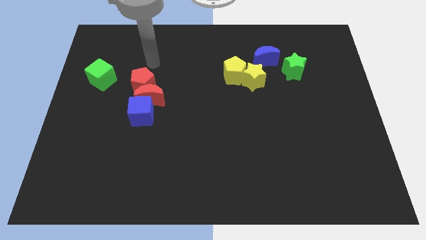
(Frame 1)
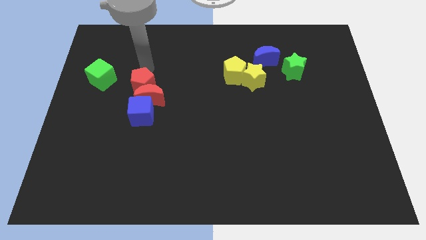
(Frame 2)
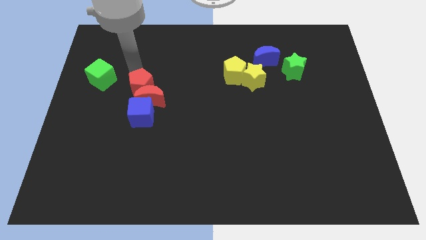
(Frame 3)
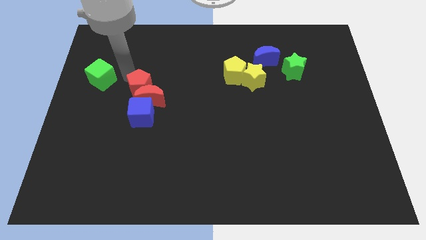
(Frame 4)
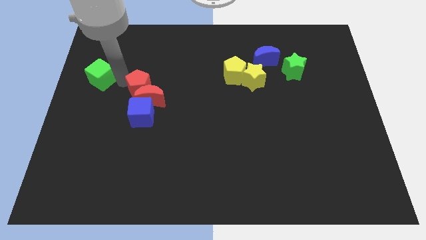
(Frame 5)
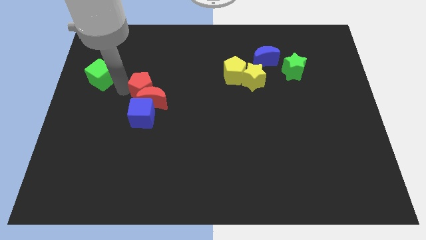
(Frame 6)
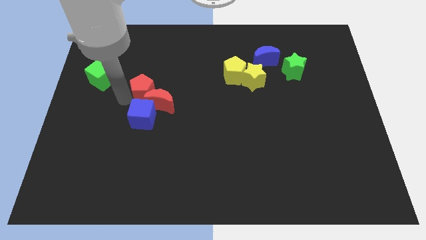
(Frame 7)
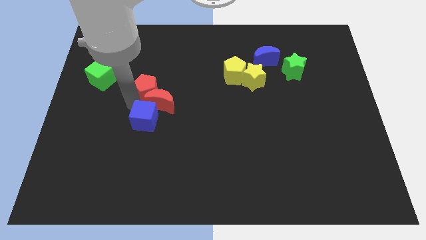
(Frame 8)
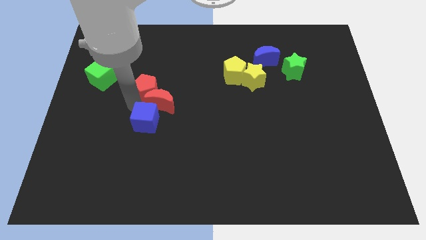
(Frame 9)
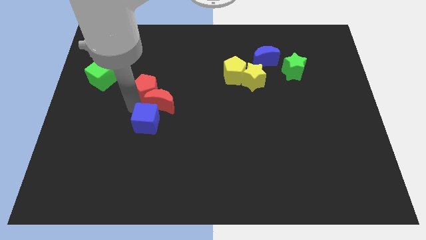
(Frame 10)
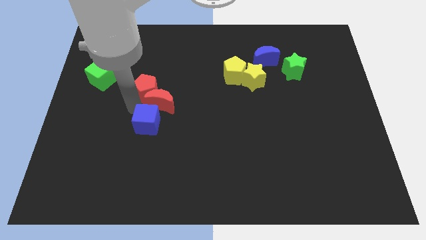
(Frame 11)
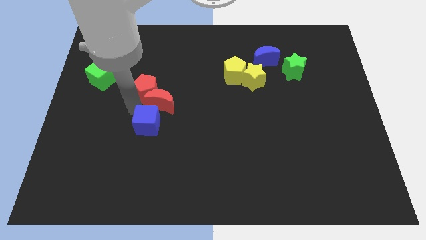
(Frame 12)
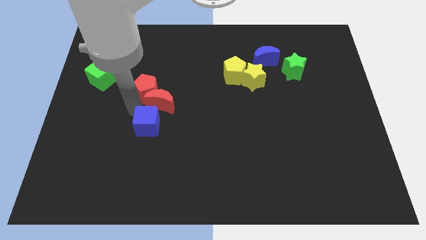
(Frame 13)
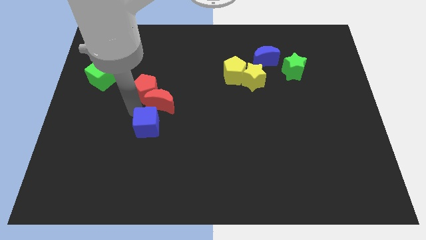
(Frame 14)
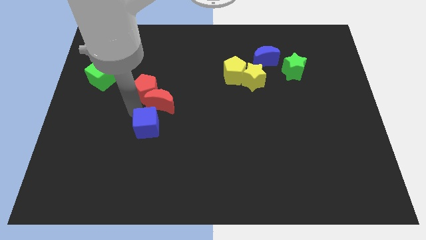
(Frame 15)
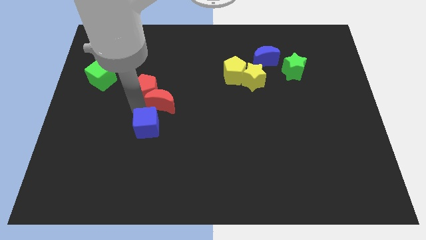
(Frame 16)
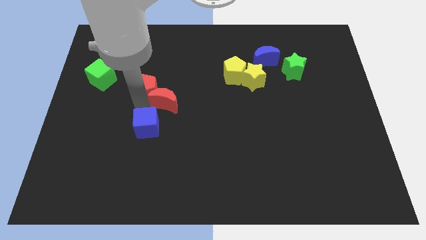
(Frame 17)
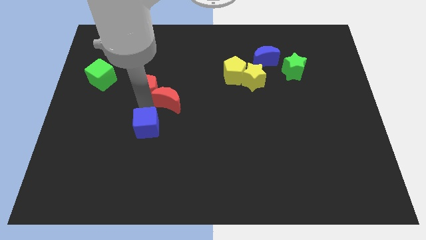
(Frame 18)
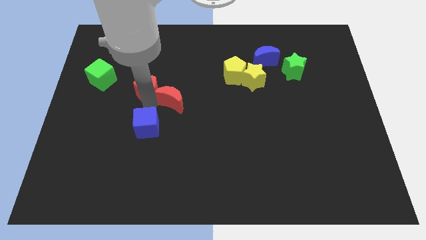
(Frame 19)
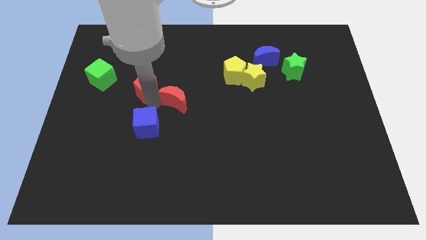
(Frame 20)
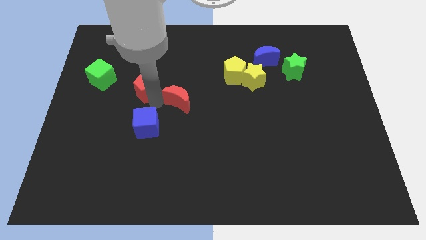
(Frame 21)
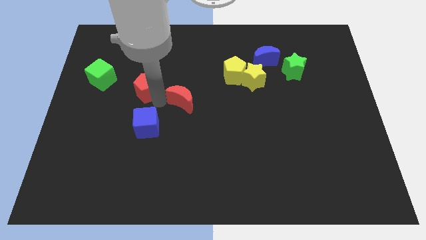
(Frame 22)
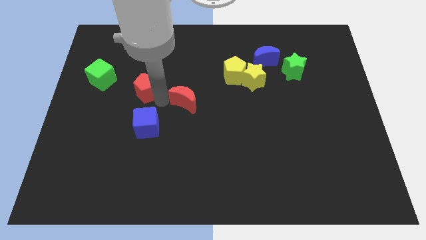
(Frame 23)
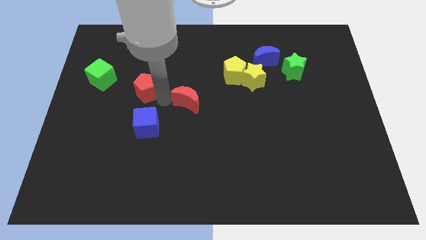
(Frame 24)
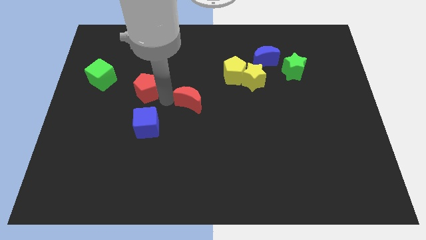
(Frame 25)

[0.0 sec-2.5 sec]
separate the red moon from the red pentagon and blue cube

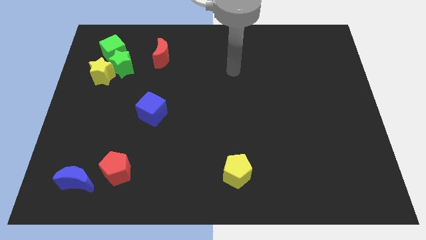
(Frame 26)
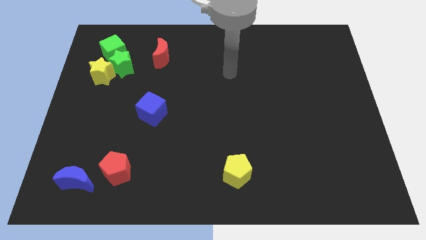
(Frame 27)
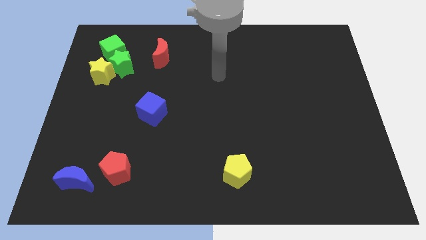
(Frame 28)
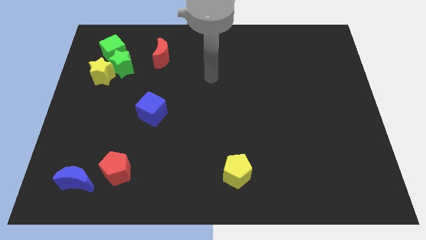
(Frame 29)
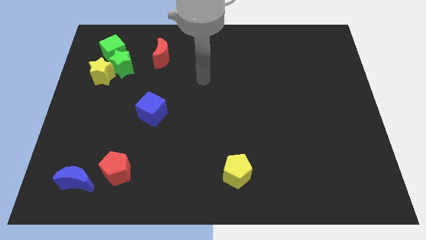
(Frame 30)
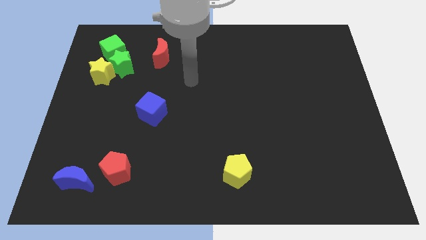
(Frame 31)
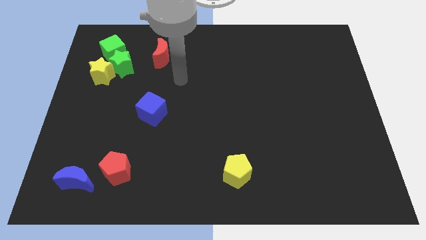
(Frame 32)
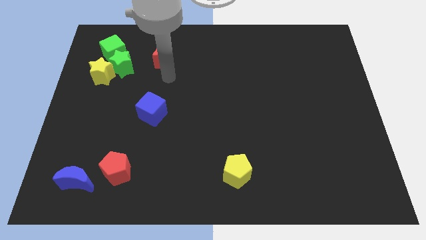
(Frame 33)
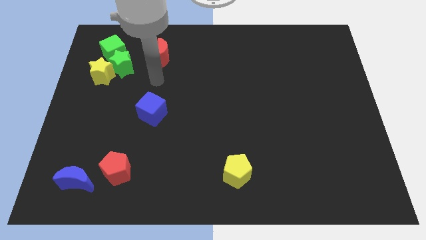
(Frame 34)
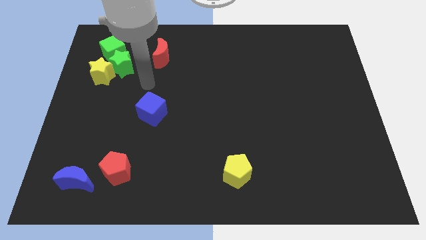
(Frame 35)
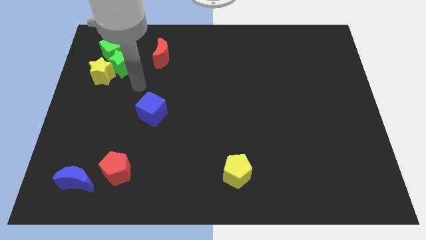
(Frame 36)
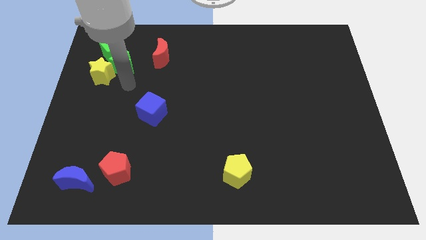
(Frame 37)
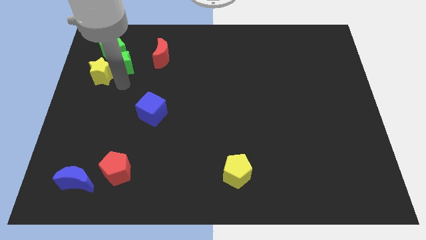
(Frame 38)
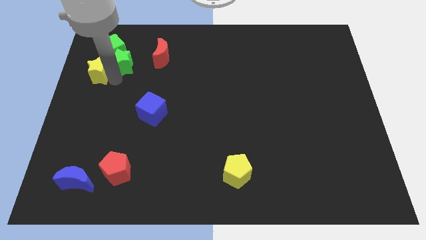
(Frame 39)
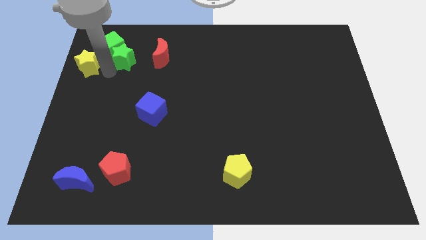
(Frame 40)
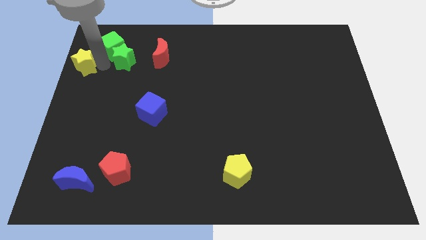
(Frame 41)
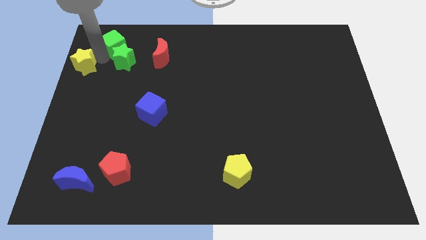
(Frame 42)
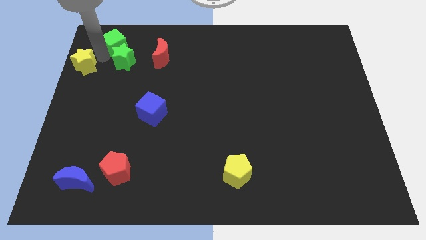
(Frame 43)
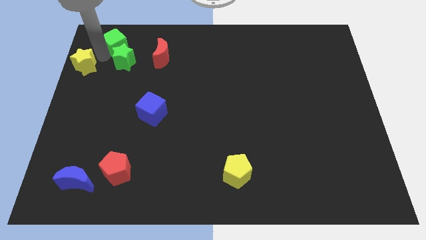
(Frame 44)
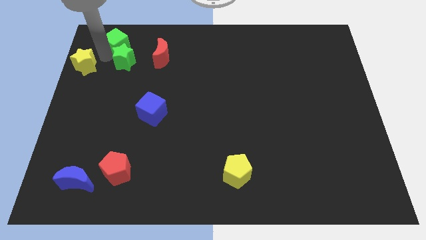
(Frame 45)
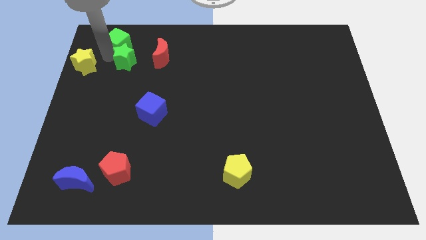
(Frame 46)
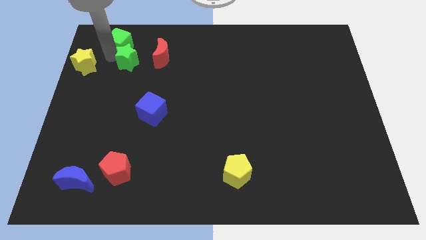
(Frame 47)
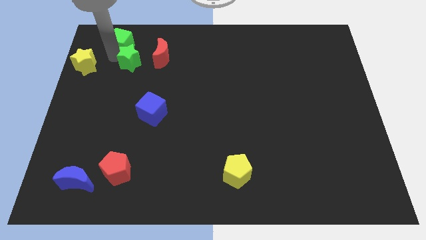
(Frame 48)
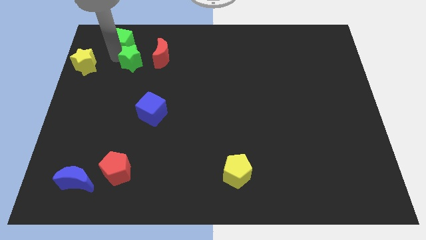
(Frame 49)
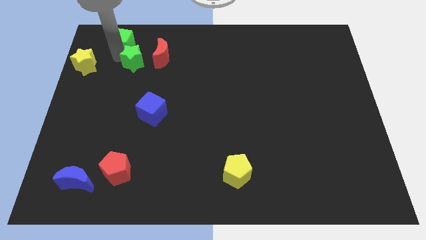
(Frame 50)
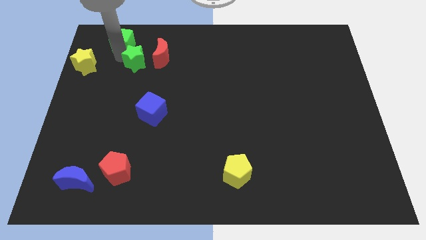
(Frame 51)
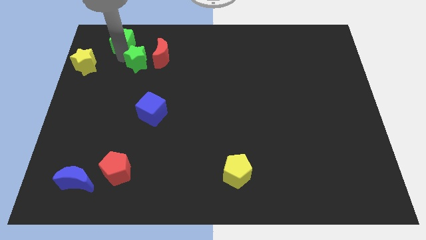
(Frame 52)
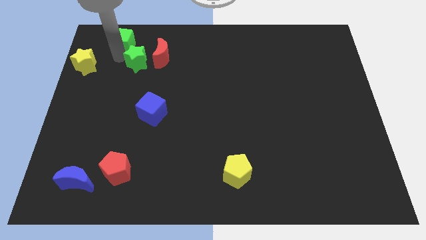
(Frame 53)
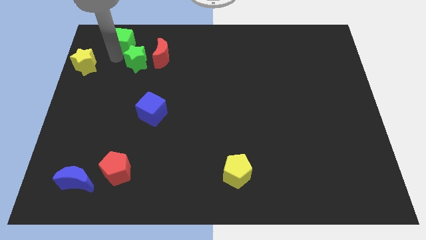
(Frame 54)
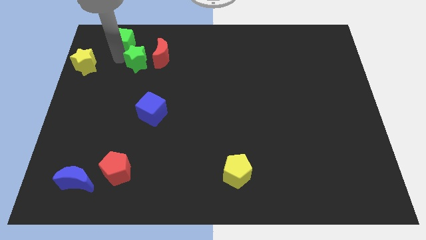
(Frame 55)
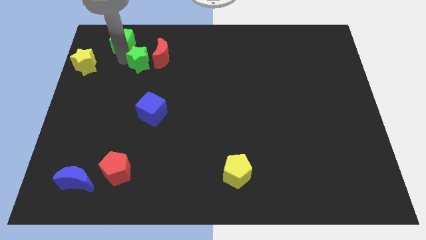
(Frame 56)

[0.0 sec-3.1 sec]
separate the green star from the yellow star and green cube

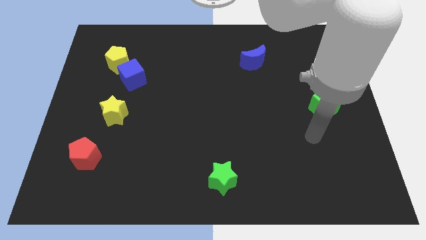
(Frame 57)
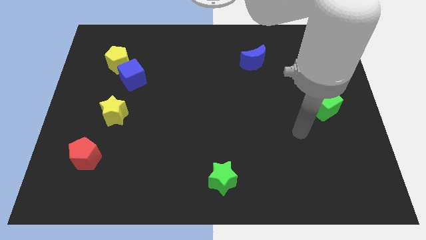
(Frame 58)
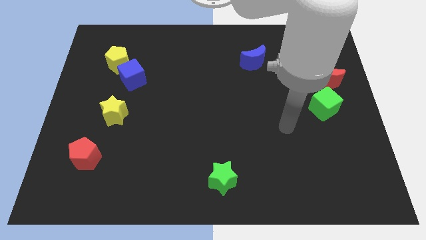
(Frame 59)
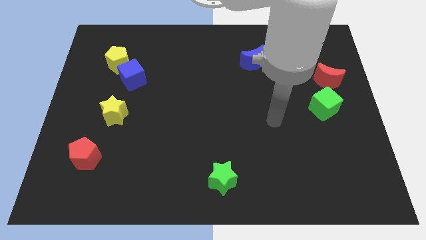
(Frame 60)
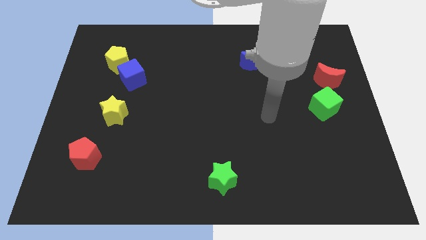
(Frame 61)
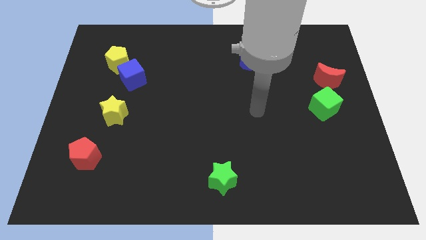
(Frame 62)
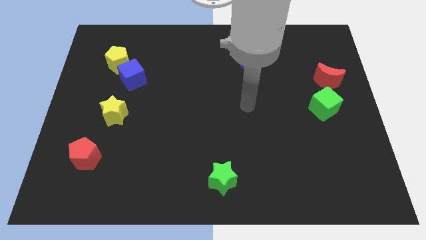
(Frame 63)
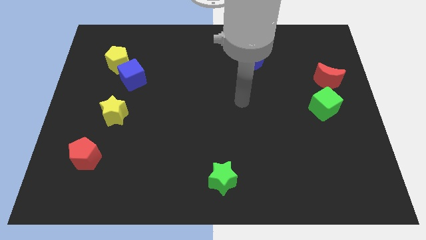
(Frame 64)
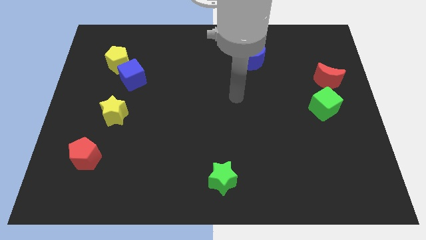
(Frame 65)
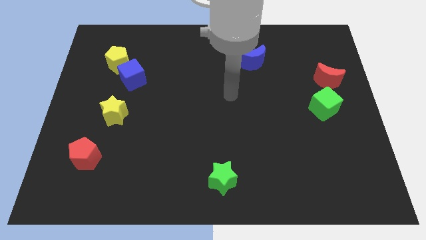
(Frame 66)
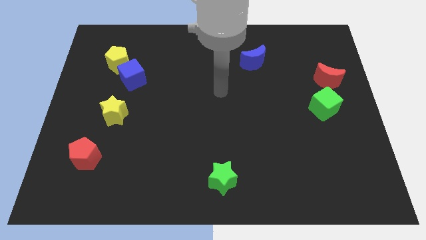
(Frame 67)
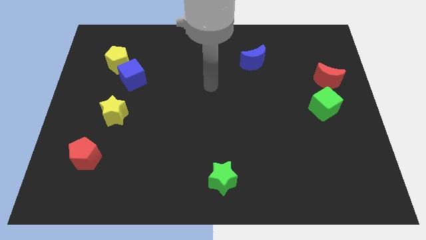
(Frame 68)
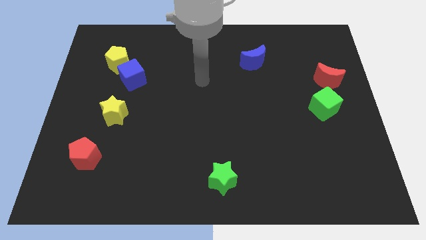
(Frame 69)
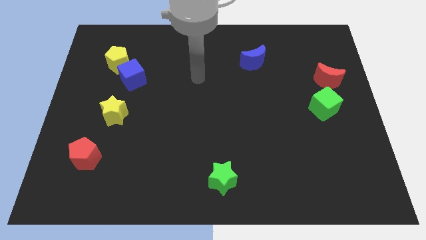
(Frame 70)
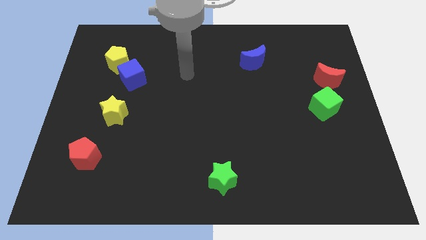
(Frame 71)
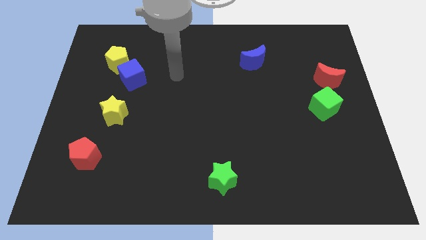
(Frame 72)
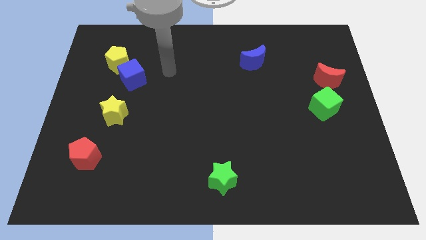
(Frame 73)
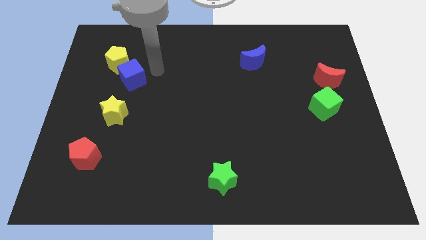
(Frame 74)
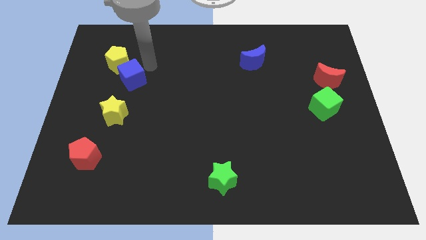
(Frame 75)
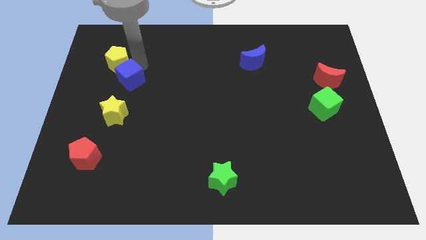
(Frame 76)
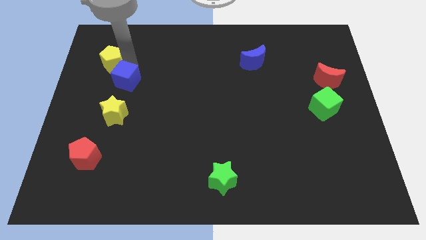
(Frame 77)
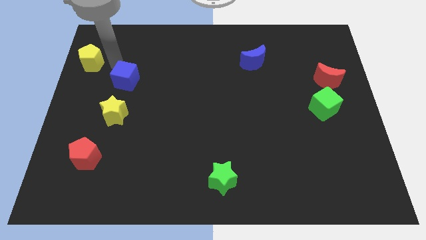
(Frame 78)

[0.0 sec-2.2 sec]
separate the blue cube from the yellow pentagon

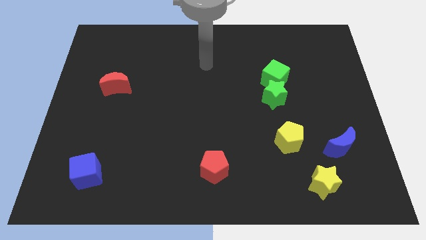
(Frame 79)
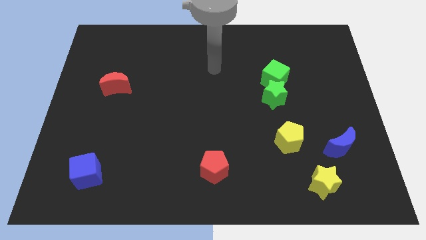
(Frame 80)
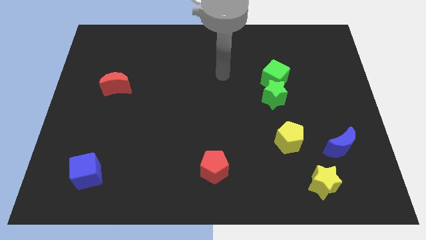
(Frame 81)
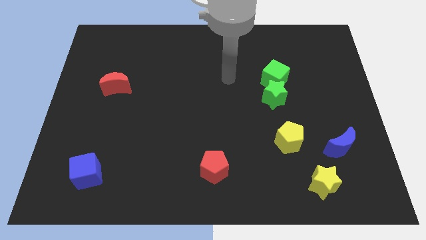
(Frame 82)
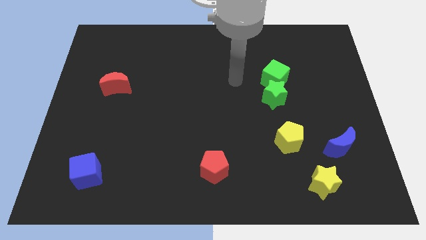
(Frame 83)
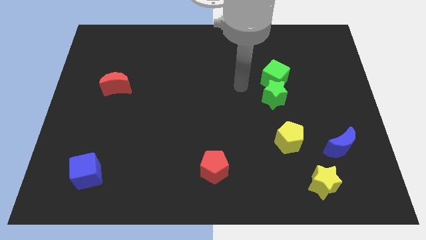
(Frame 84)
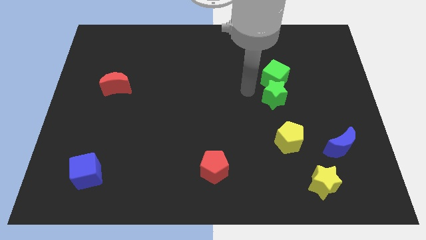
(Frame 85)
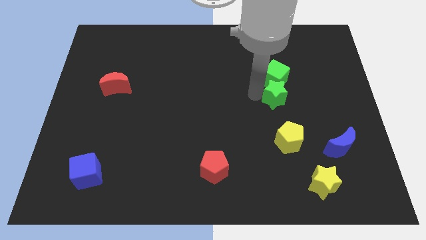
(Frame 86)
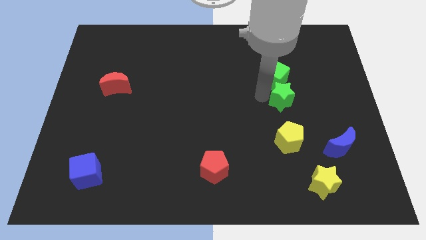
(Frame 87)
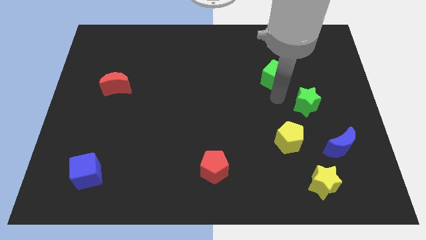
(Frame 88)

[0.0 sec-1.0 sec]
separate the green cube from the green star

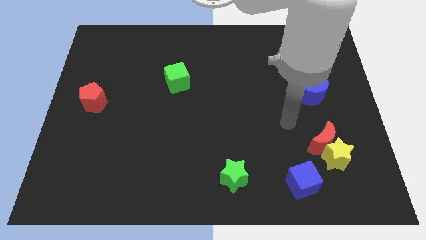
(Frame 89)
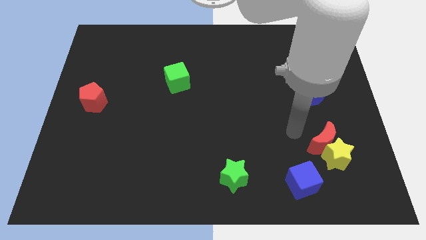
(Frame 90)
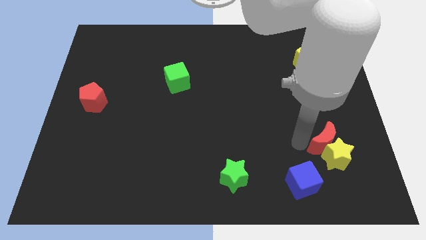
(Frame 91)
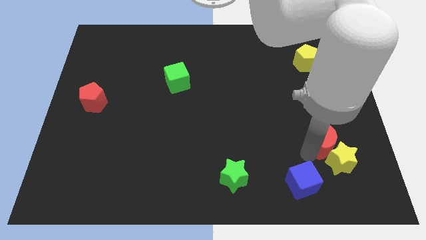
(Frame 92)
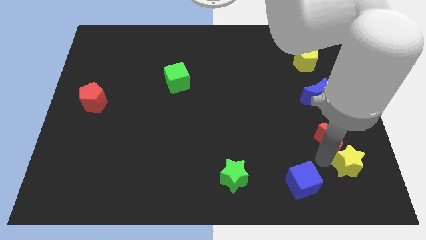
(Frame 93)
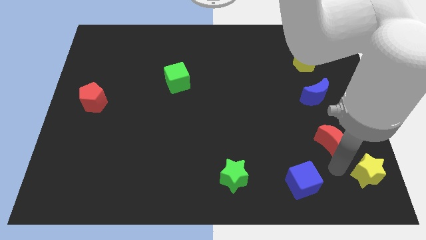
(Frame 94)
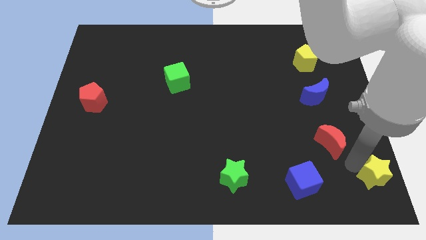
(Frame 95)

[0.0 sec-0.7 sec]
separate the red moon from the yellow star
